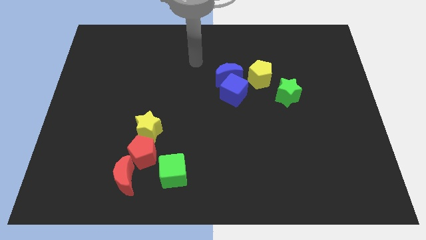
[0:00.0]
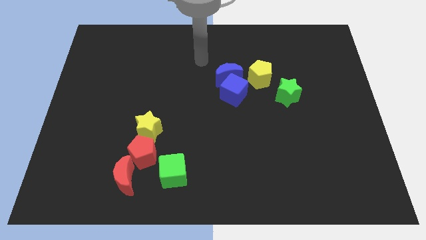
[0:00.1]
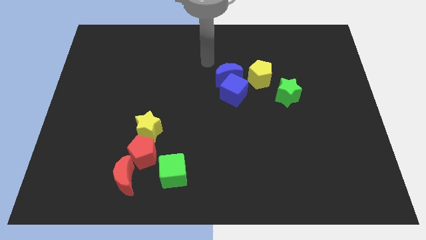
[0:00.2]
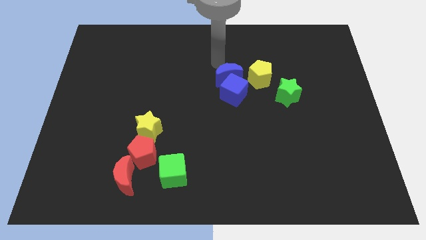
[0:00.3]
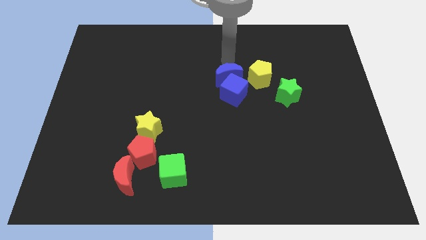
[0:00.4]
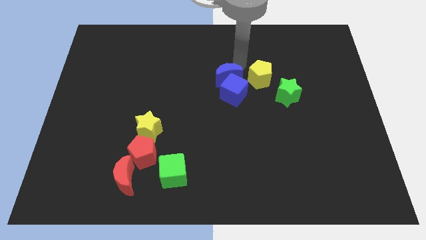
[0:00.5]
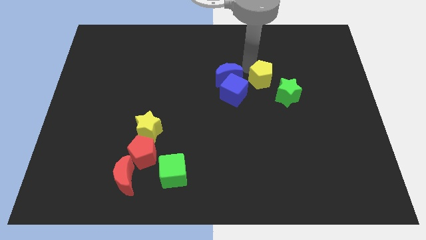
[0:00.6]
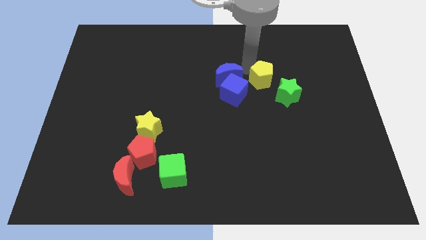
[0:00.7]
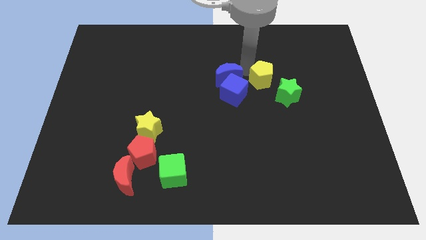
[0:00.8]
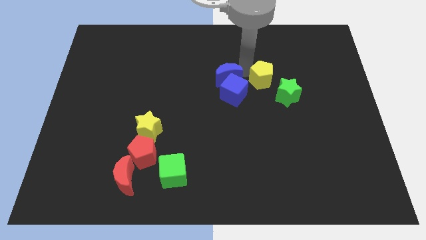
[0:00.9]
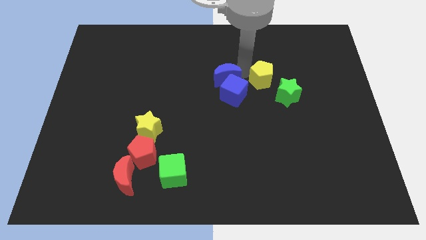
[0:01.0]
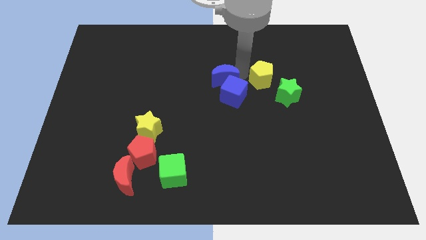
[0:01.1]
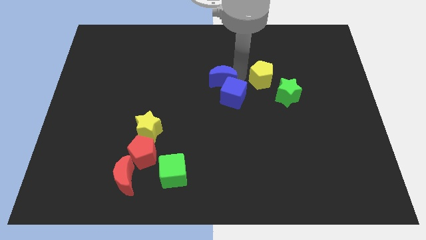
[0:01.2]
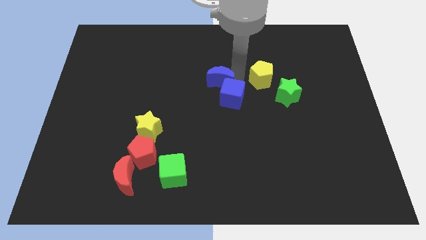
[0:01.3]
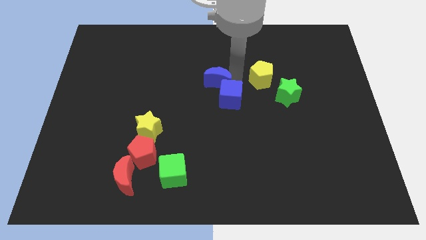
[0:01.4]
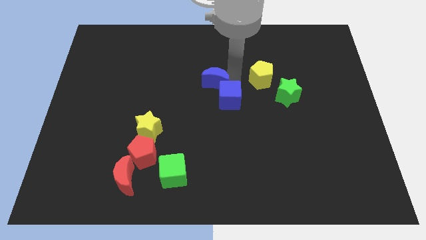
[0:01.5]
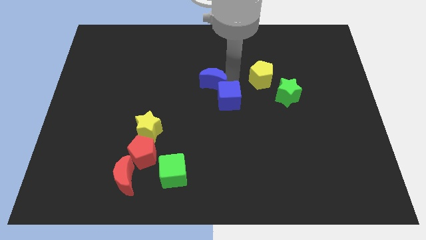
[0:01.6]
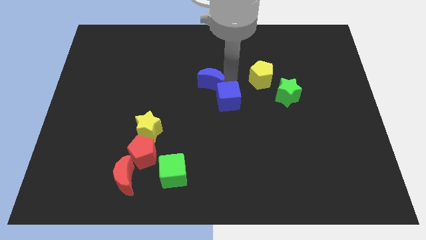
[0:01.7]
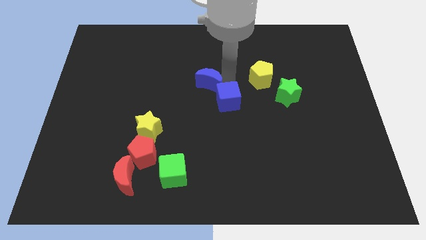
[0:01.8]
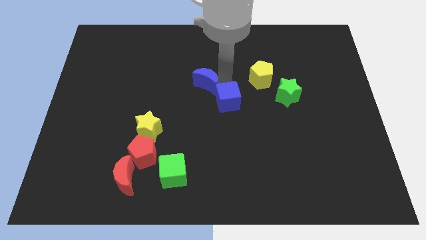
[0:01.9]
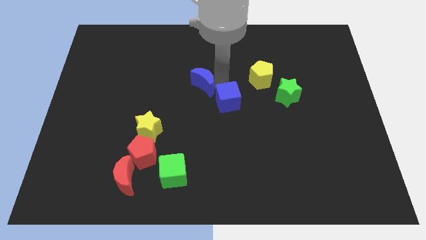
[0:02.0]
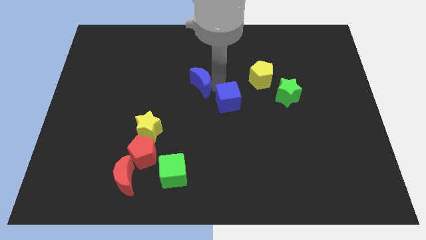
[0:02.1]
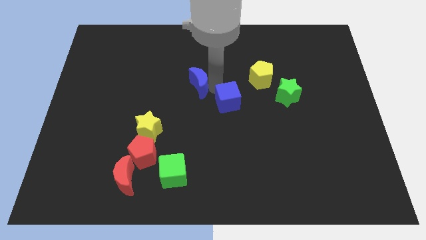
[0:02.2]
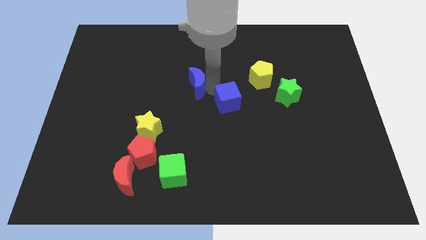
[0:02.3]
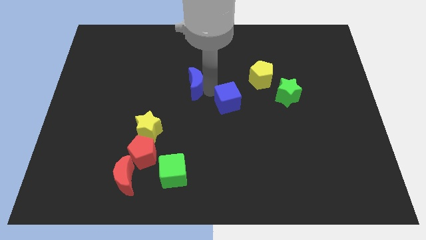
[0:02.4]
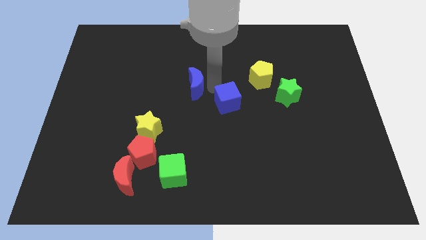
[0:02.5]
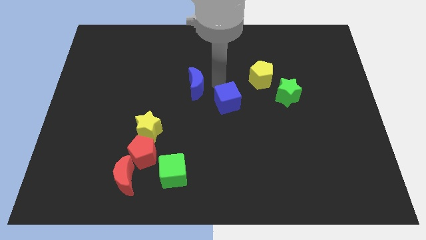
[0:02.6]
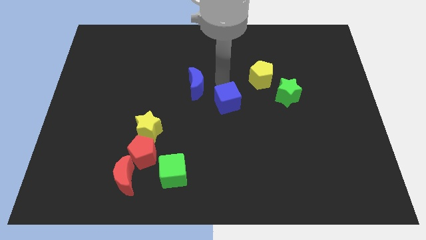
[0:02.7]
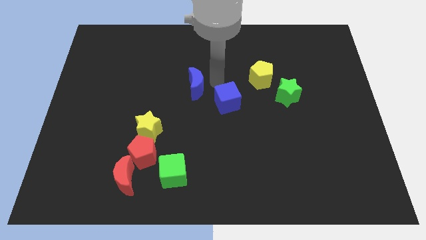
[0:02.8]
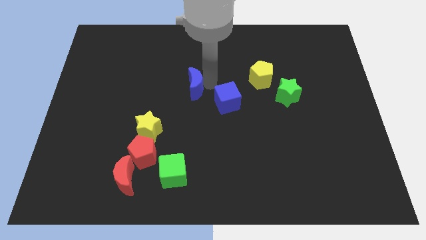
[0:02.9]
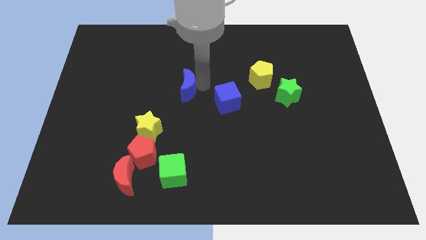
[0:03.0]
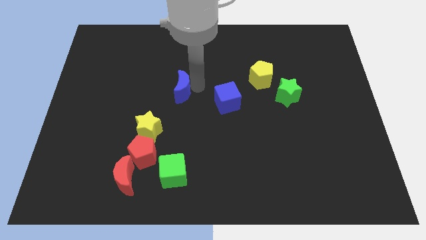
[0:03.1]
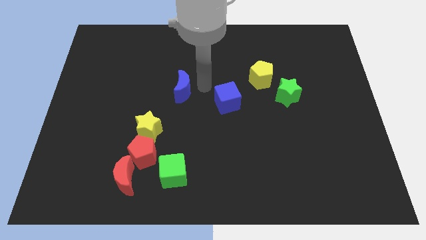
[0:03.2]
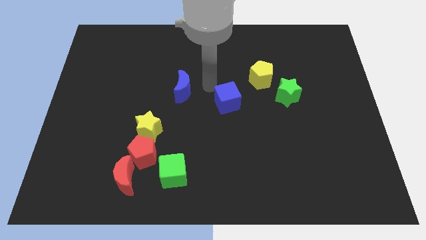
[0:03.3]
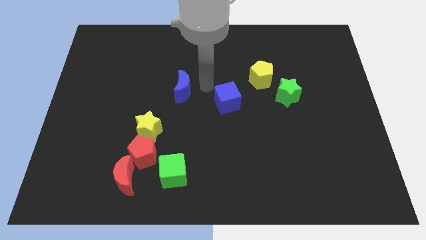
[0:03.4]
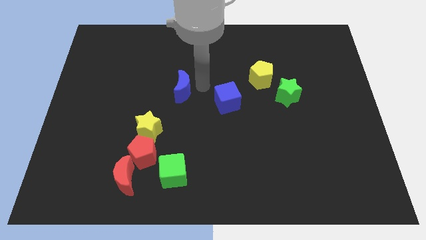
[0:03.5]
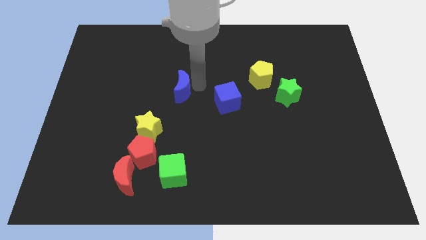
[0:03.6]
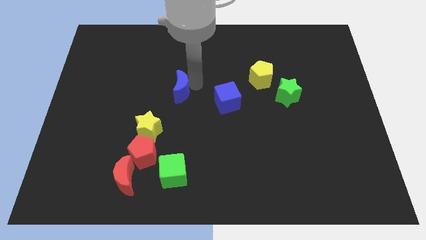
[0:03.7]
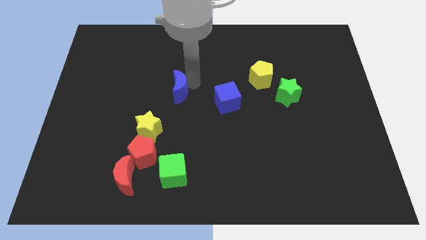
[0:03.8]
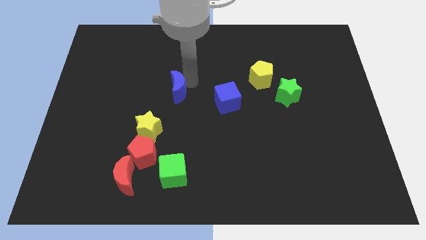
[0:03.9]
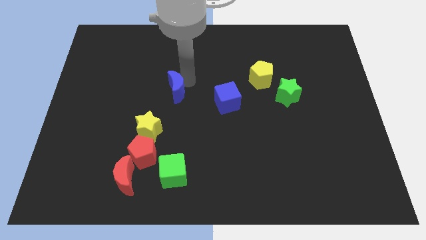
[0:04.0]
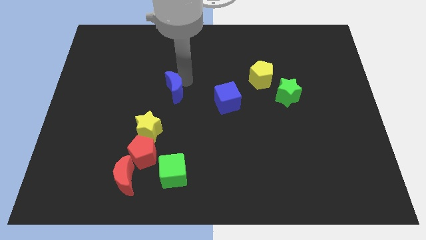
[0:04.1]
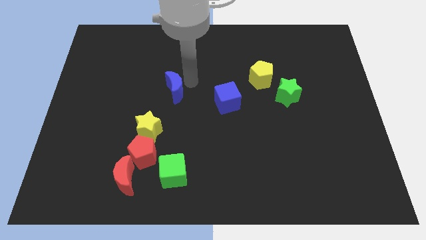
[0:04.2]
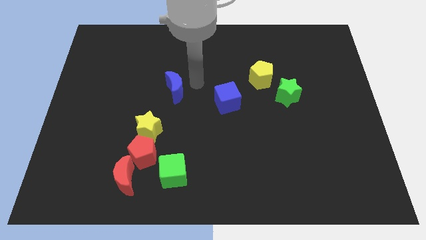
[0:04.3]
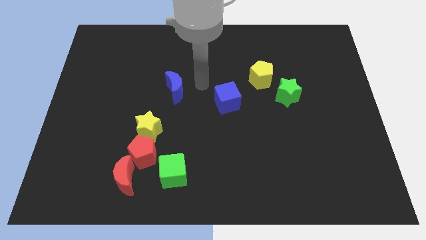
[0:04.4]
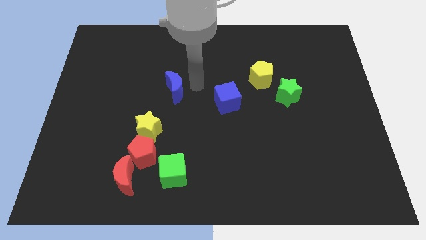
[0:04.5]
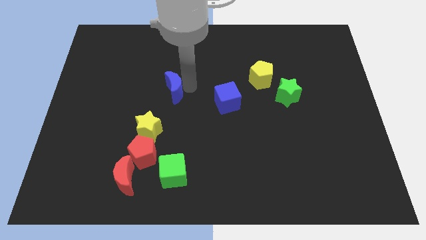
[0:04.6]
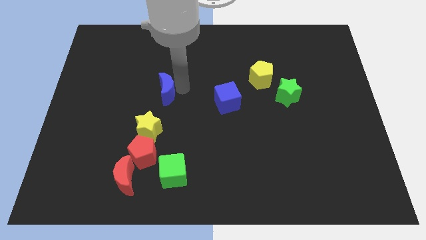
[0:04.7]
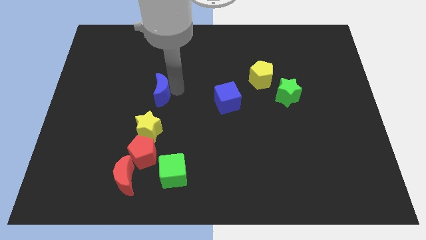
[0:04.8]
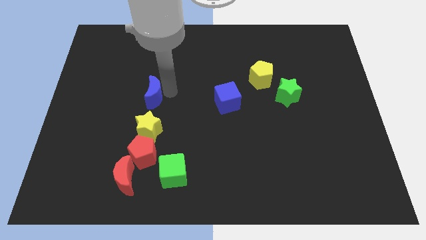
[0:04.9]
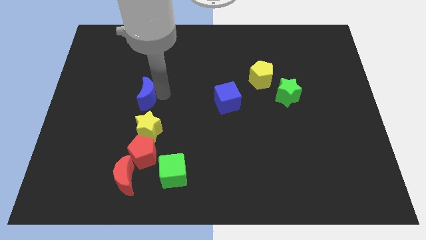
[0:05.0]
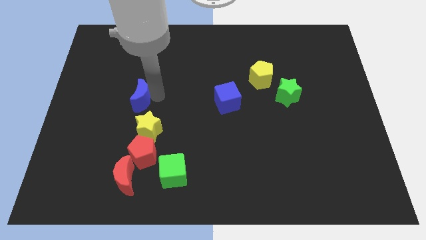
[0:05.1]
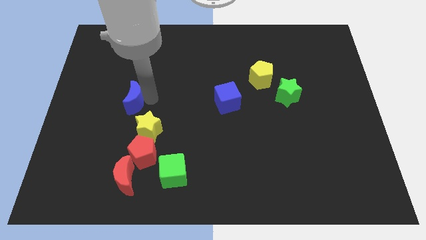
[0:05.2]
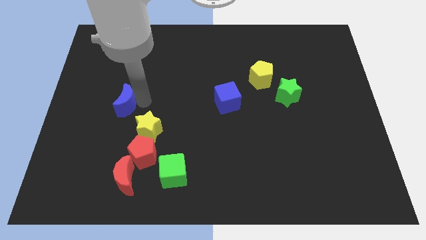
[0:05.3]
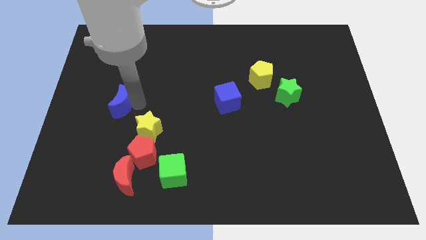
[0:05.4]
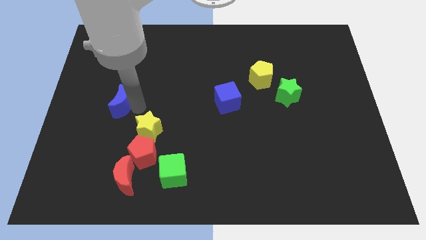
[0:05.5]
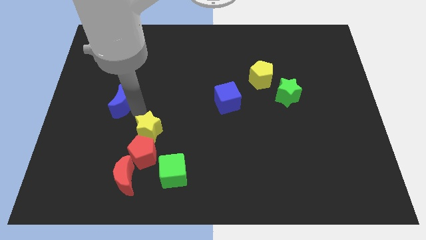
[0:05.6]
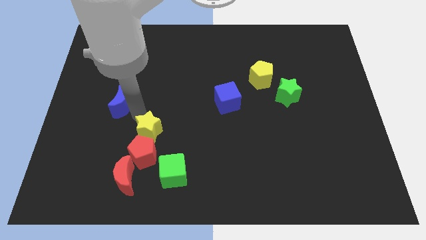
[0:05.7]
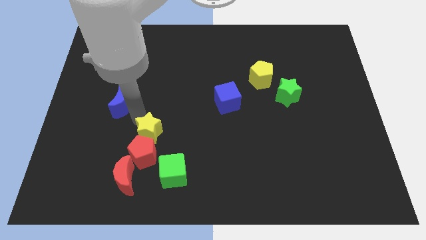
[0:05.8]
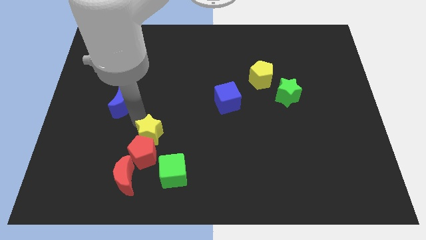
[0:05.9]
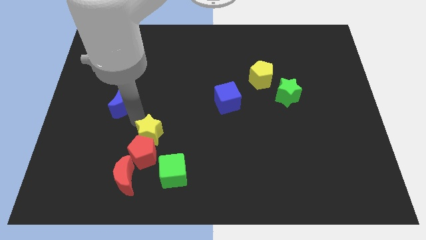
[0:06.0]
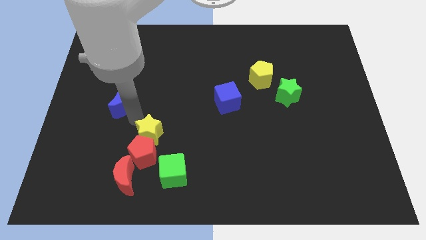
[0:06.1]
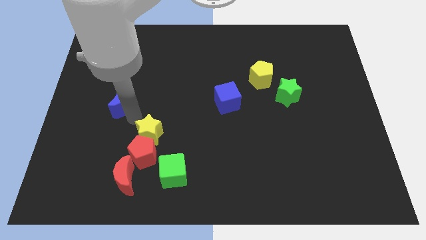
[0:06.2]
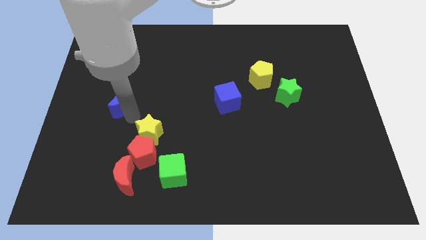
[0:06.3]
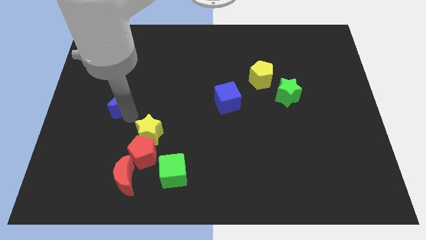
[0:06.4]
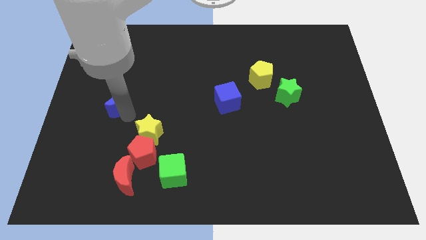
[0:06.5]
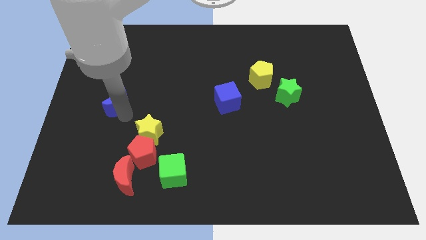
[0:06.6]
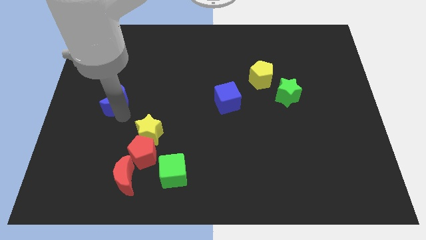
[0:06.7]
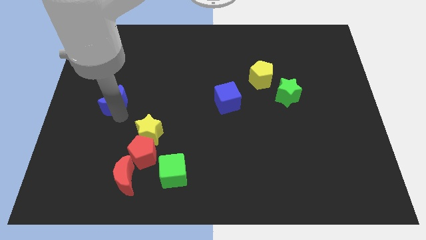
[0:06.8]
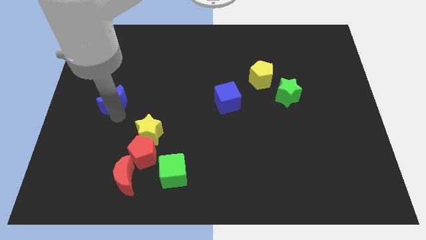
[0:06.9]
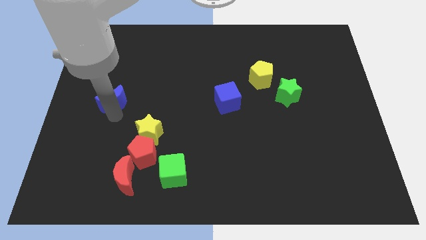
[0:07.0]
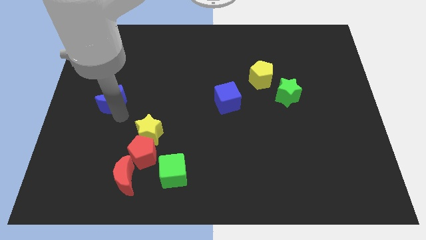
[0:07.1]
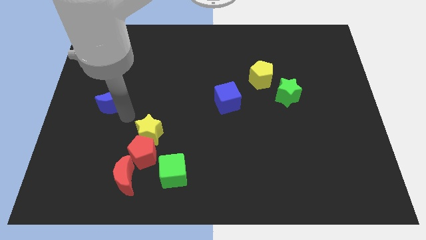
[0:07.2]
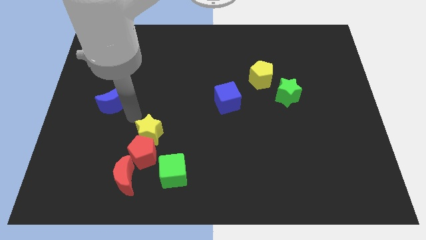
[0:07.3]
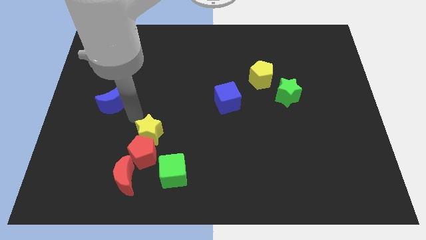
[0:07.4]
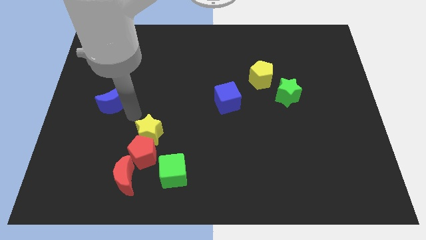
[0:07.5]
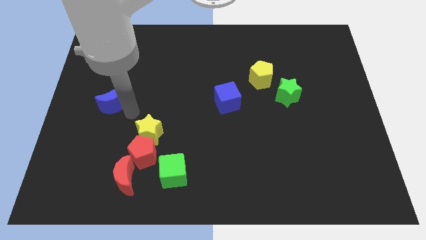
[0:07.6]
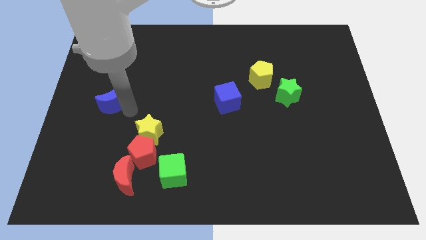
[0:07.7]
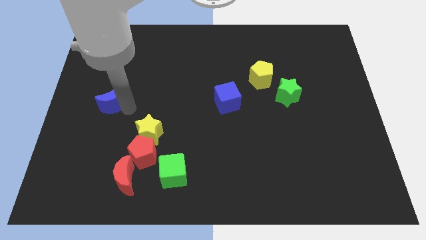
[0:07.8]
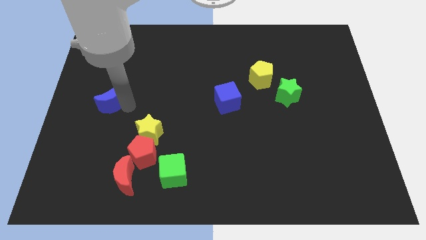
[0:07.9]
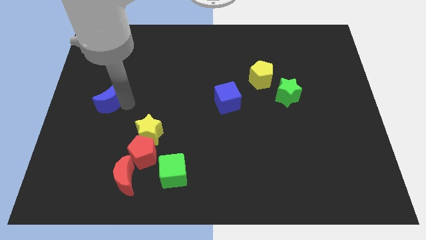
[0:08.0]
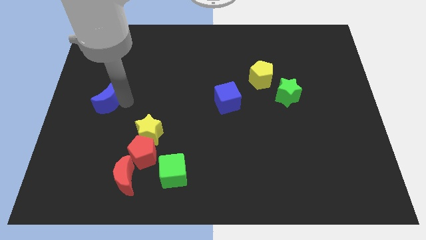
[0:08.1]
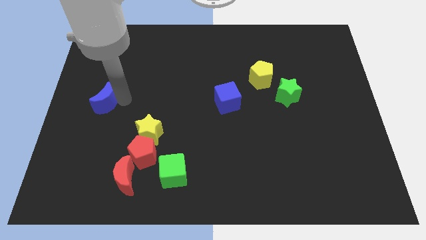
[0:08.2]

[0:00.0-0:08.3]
push the blue moon to the left side
